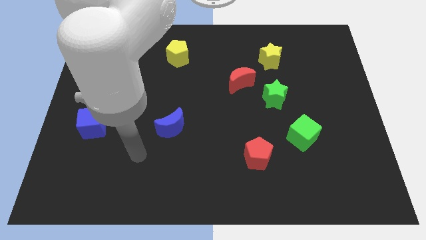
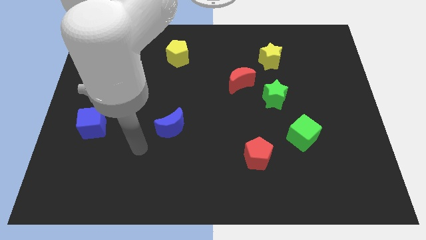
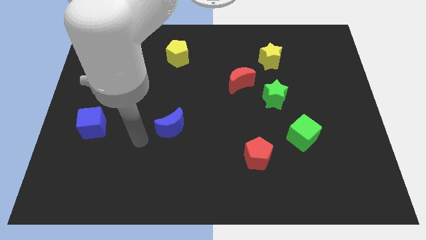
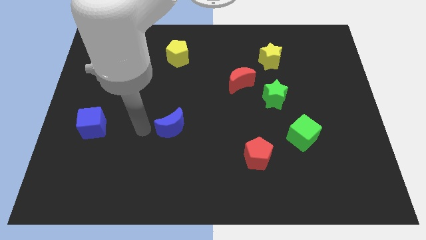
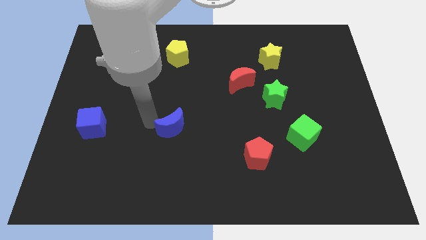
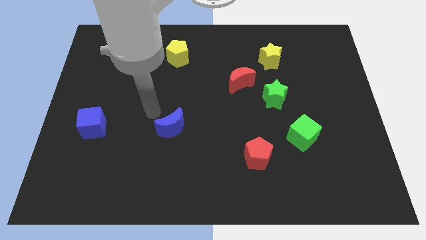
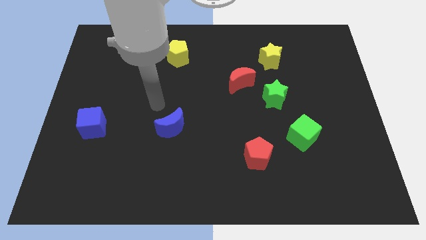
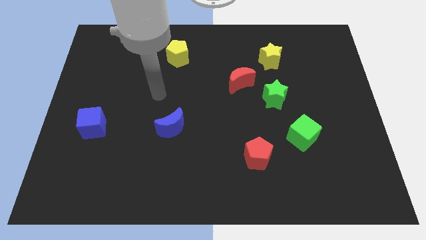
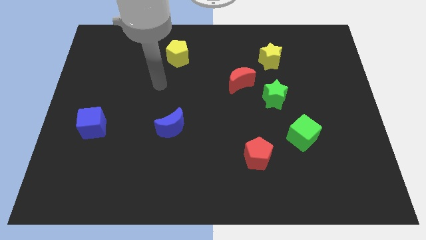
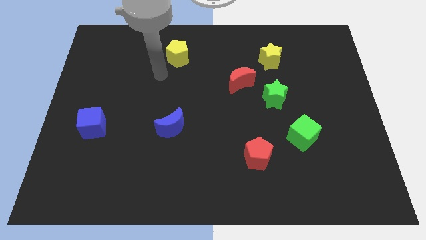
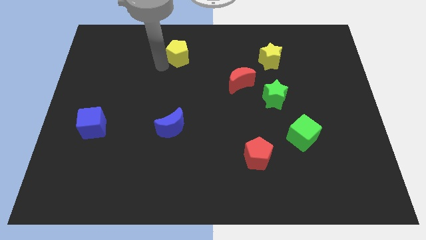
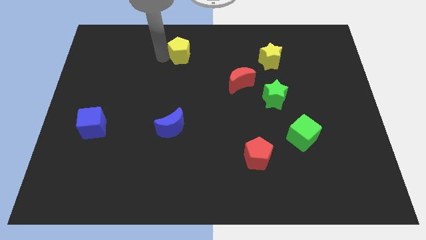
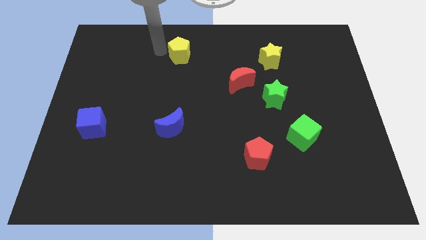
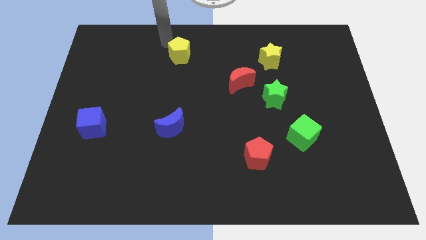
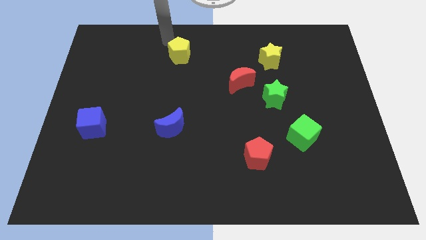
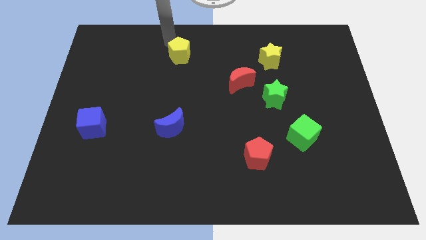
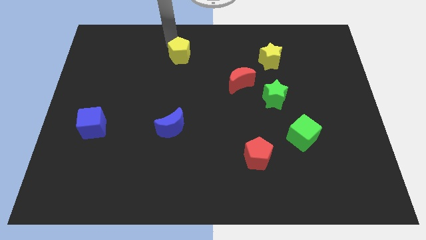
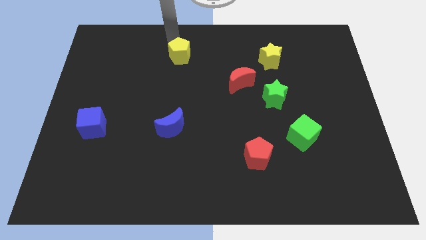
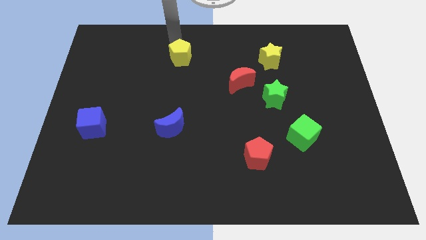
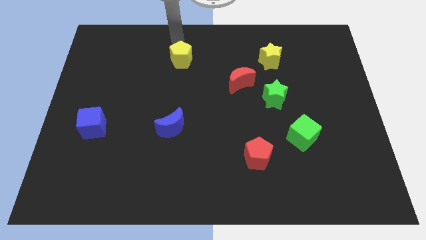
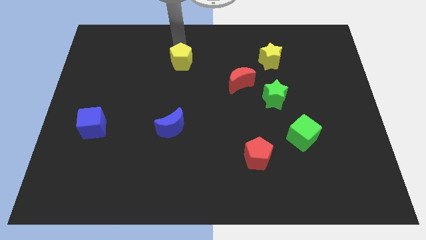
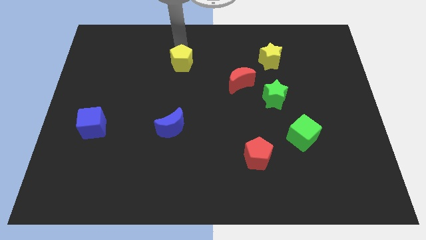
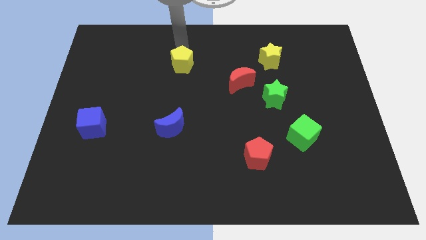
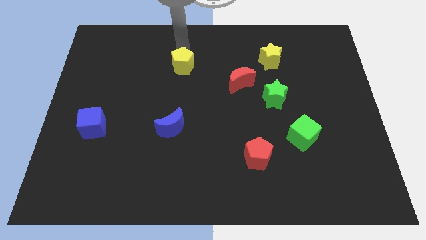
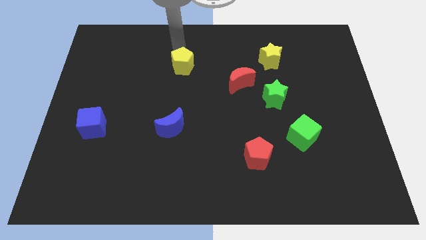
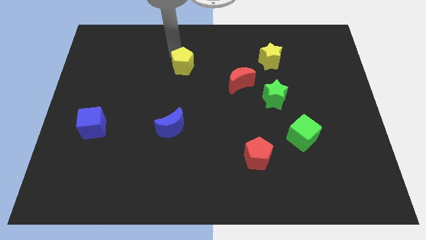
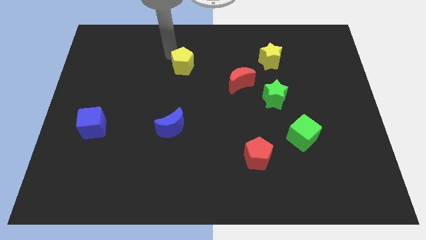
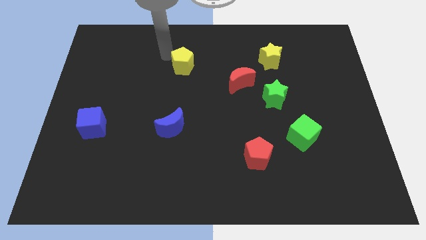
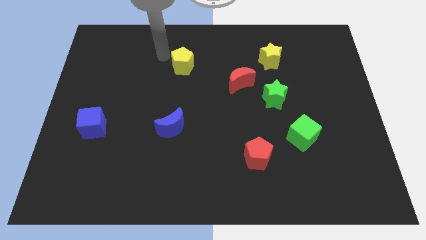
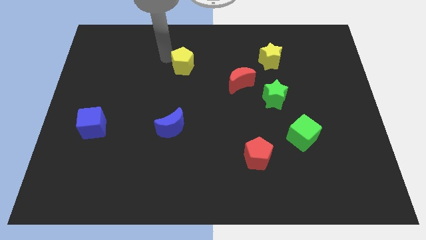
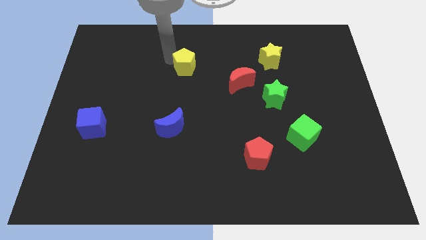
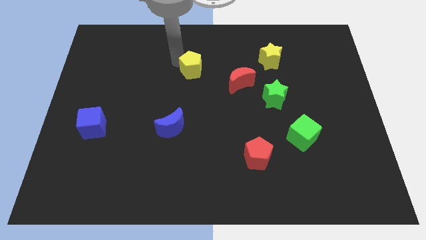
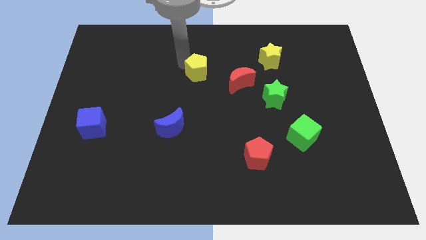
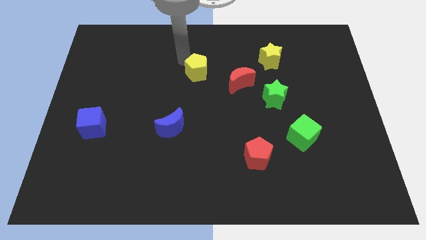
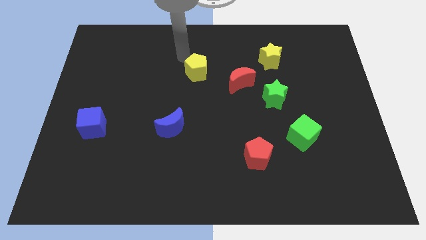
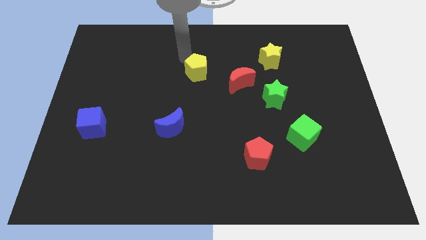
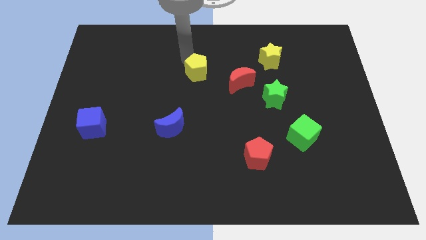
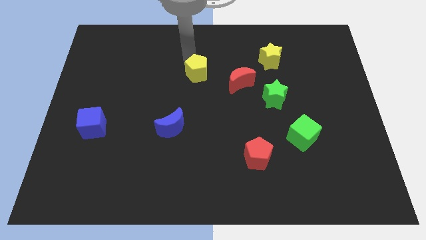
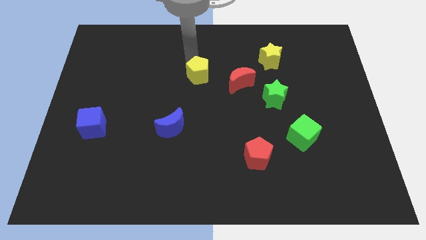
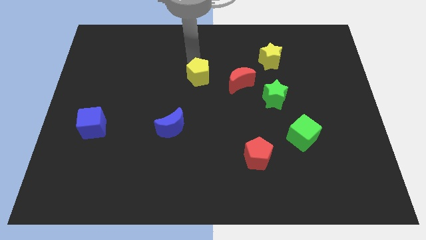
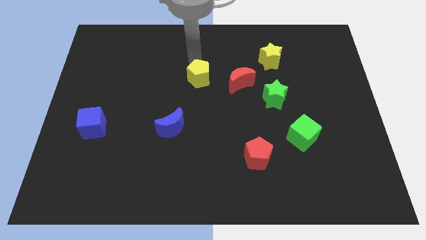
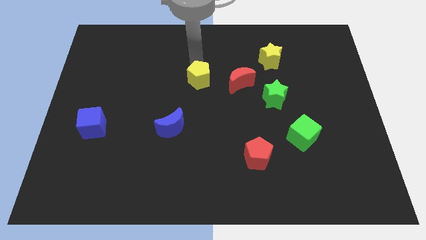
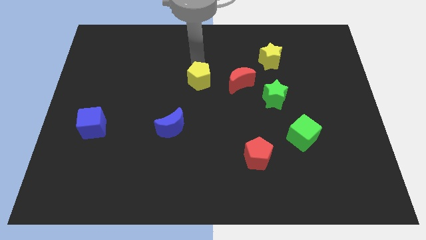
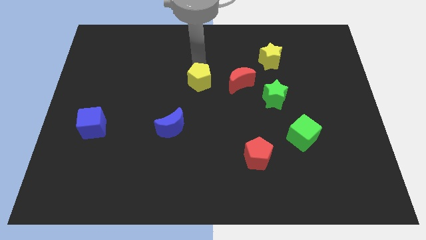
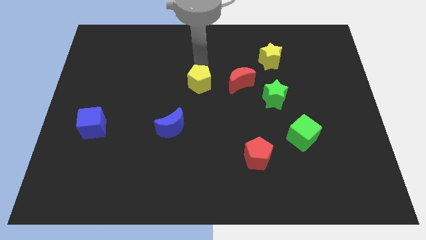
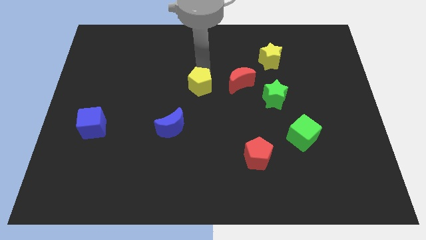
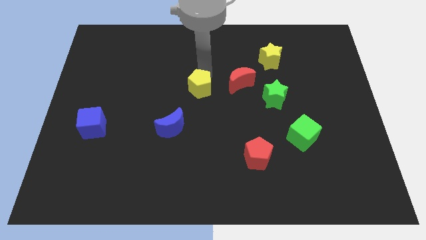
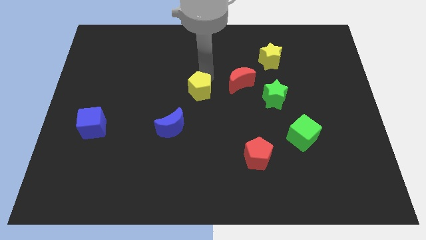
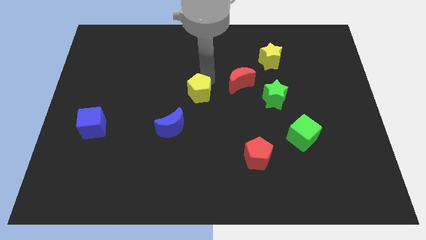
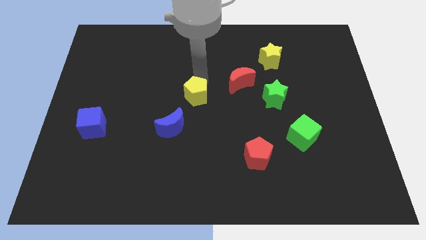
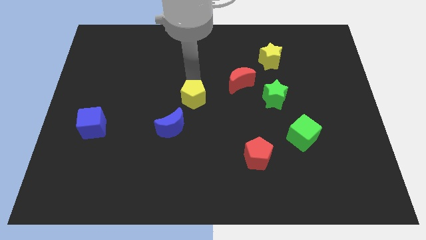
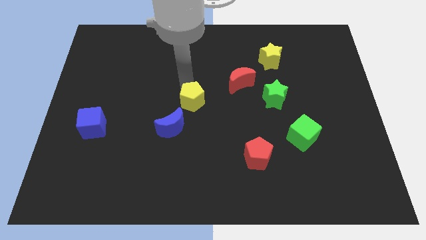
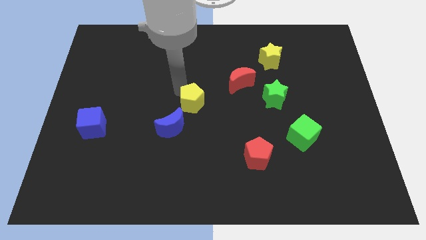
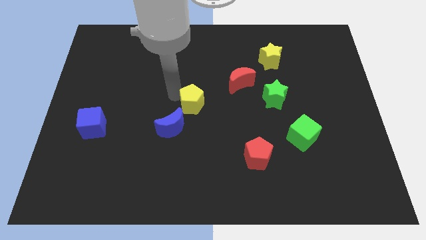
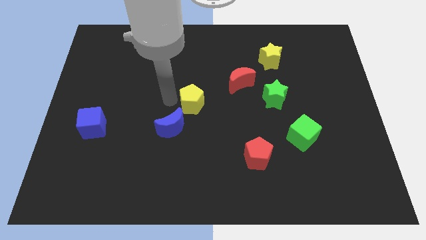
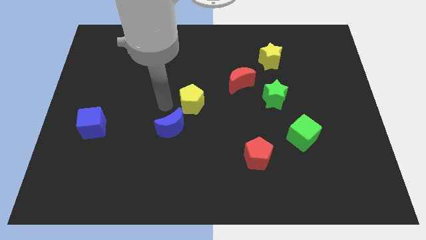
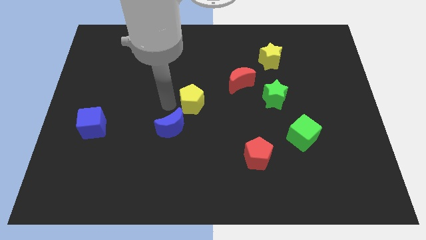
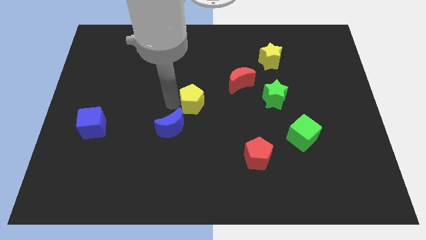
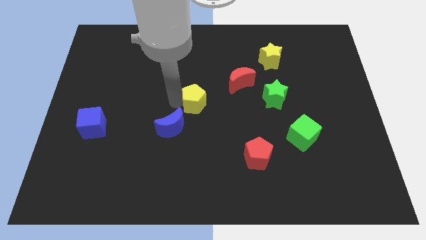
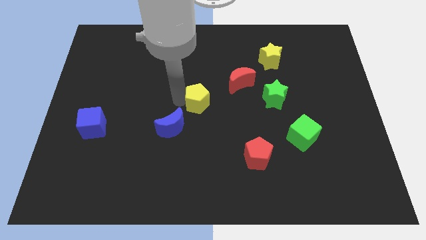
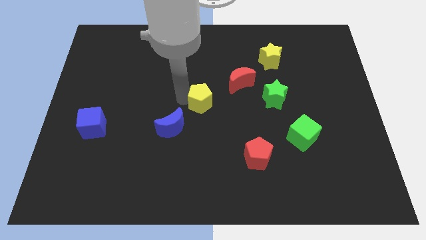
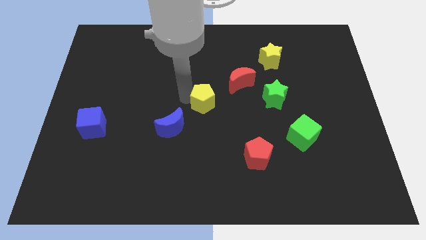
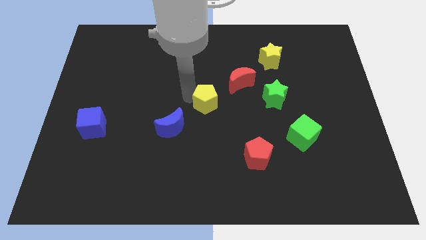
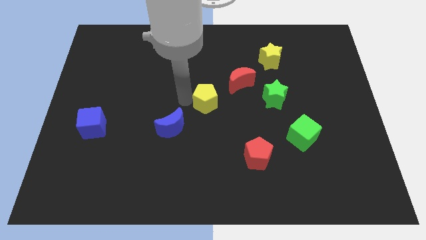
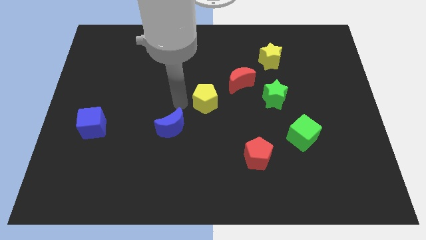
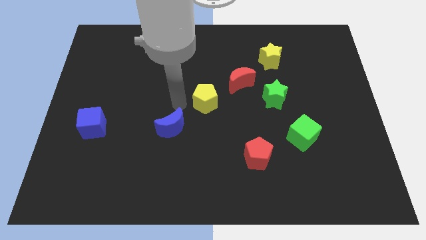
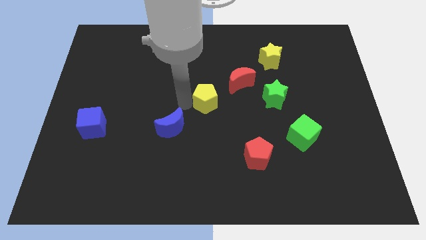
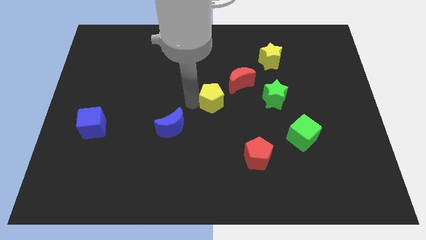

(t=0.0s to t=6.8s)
push the yellow pentagon to the left side of the green star
